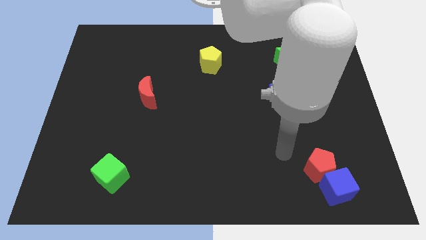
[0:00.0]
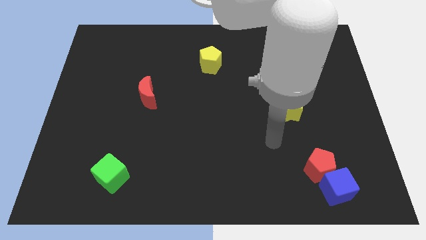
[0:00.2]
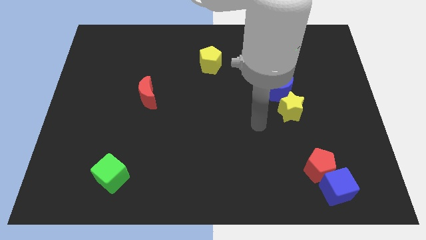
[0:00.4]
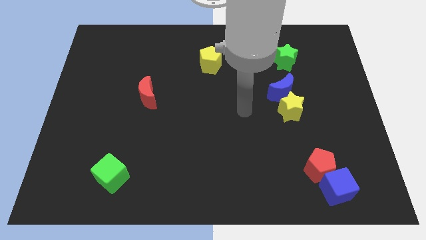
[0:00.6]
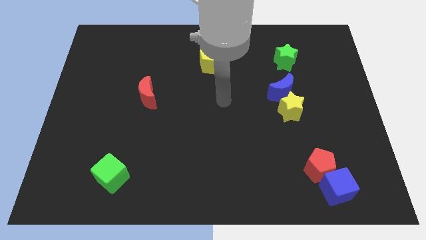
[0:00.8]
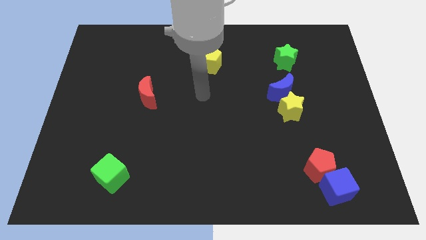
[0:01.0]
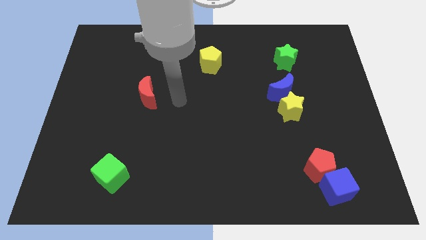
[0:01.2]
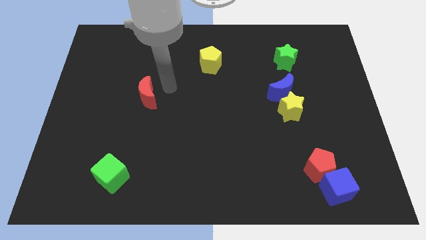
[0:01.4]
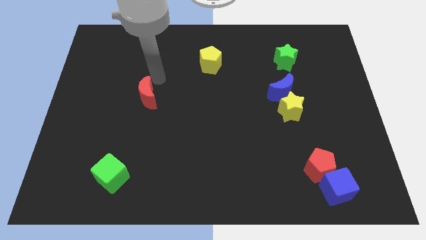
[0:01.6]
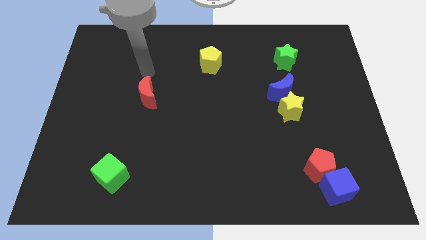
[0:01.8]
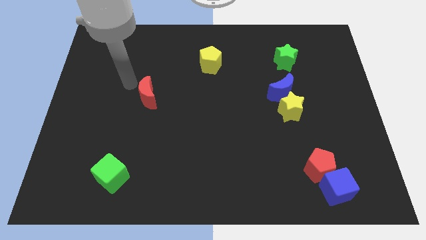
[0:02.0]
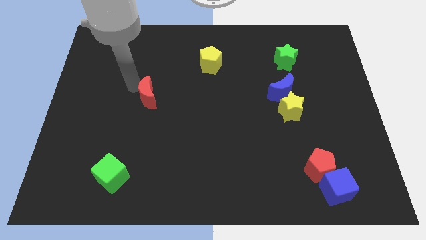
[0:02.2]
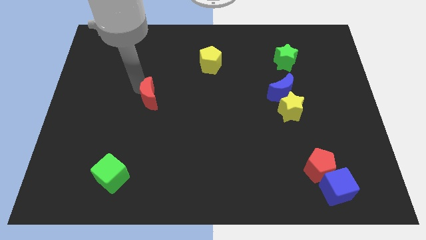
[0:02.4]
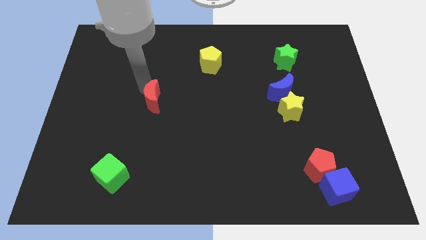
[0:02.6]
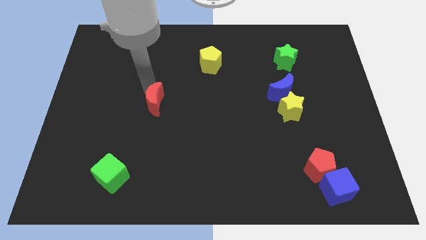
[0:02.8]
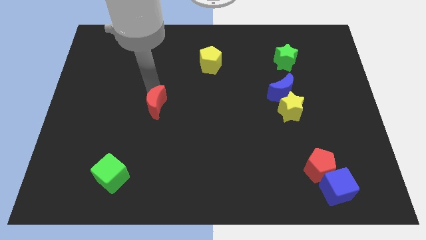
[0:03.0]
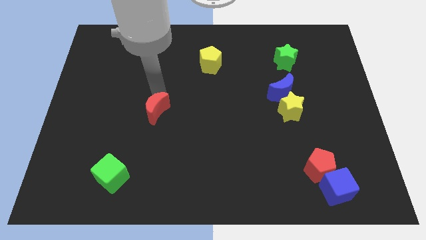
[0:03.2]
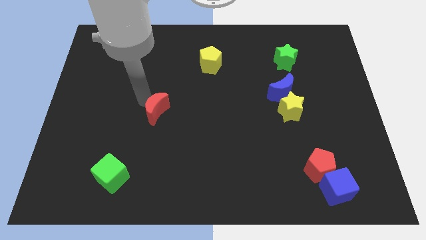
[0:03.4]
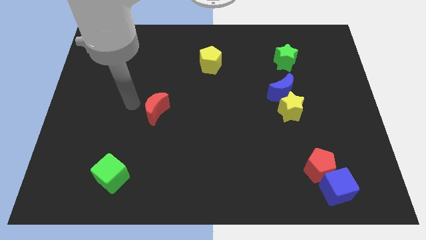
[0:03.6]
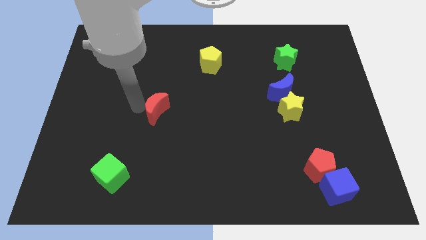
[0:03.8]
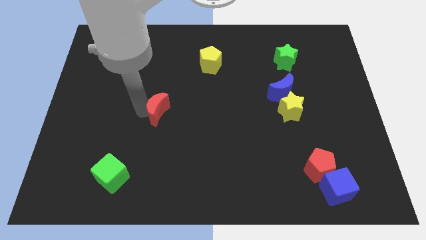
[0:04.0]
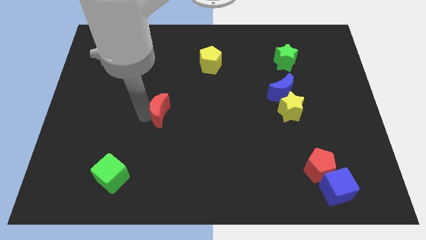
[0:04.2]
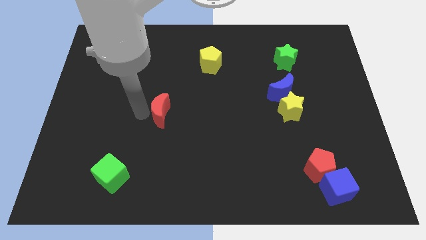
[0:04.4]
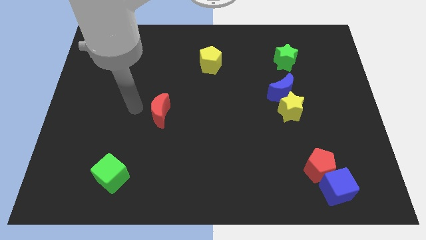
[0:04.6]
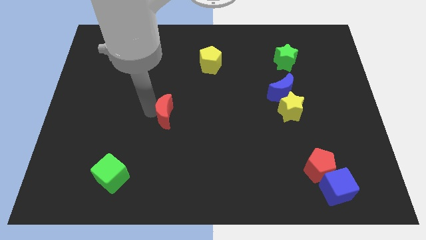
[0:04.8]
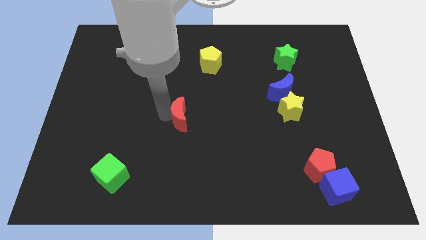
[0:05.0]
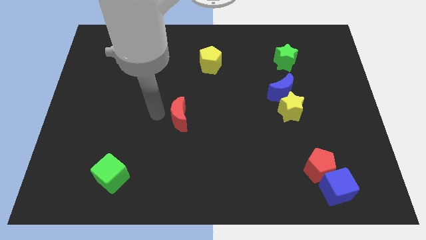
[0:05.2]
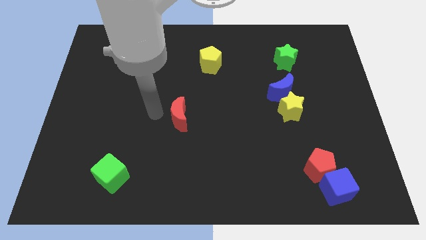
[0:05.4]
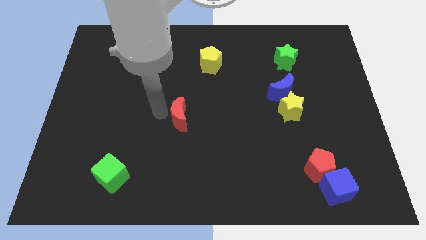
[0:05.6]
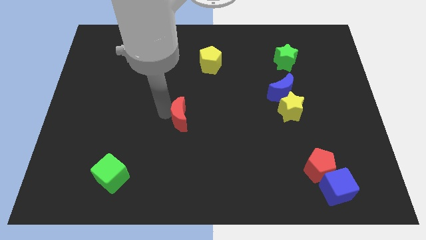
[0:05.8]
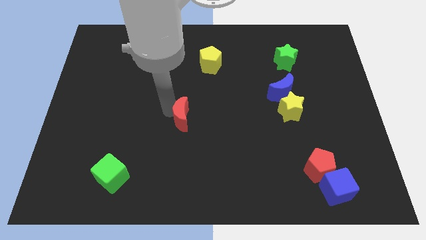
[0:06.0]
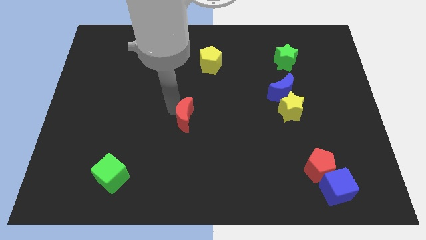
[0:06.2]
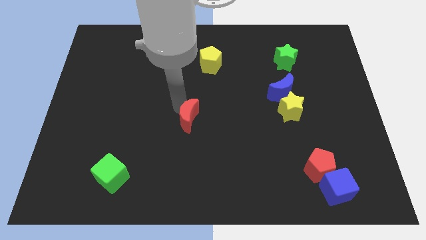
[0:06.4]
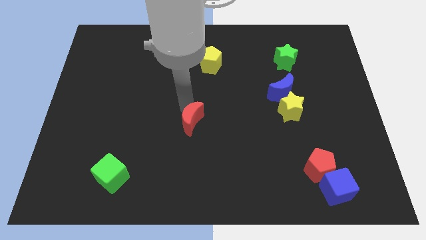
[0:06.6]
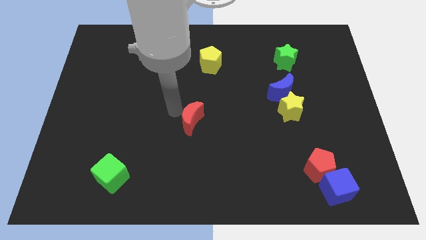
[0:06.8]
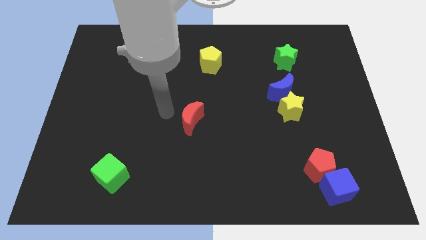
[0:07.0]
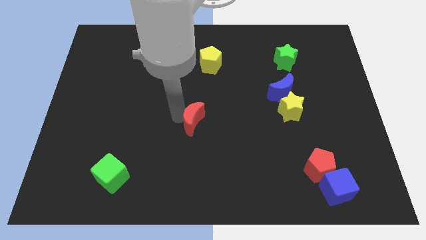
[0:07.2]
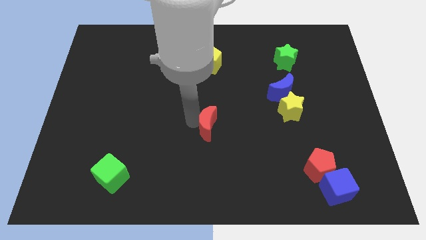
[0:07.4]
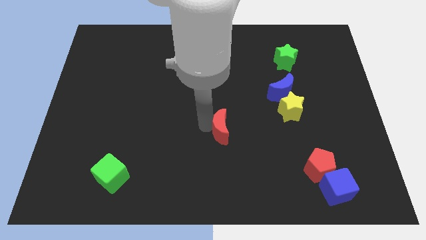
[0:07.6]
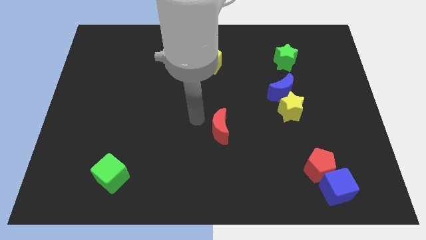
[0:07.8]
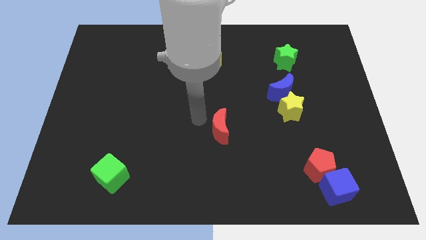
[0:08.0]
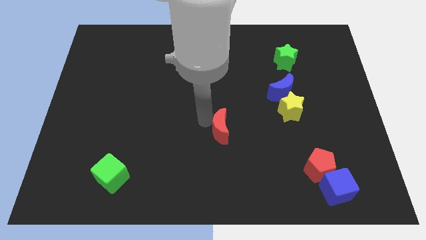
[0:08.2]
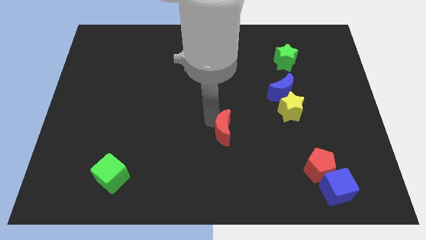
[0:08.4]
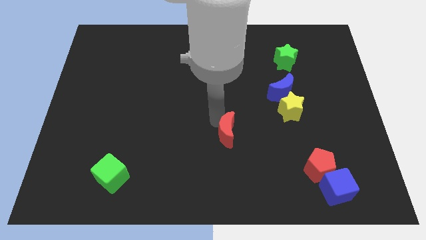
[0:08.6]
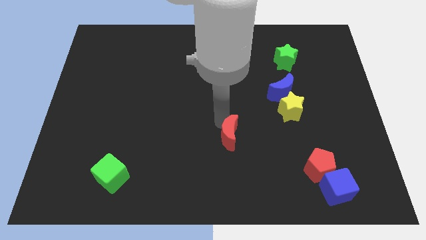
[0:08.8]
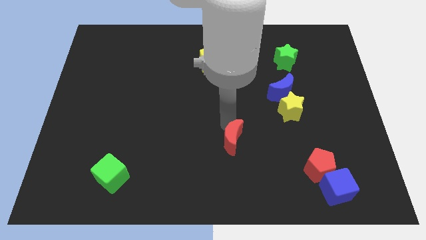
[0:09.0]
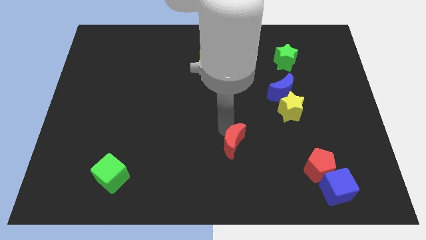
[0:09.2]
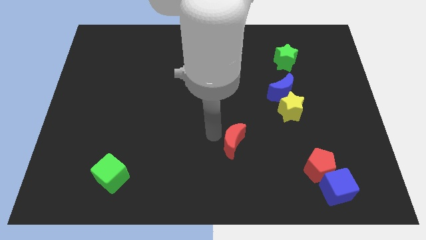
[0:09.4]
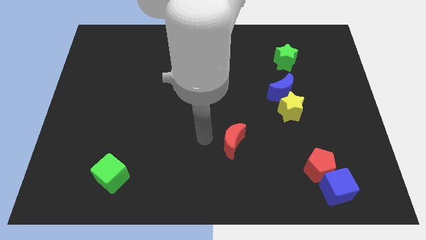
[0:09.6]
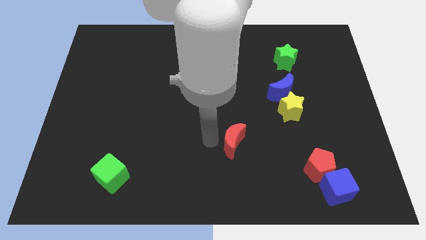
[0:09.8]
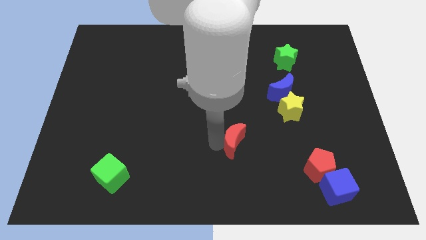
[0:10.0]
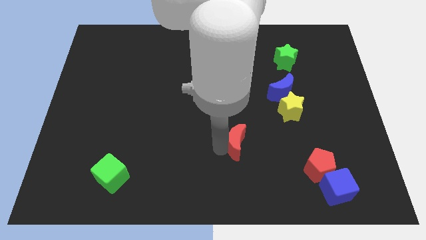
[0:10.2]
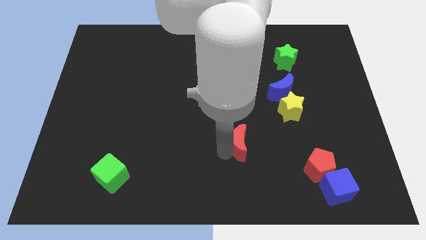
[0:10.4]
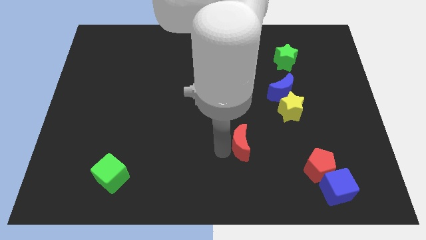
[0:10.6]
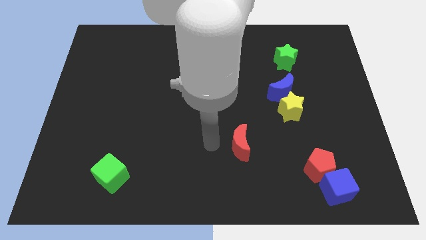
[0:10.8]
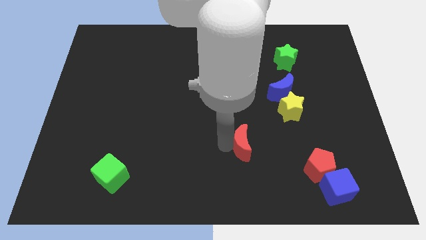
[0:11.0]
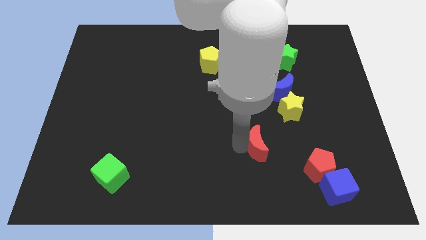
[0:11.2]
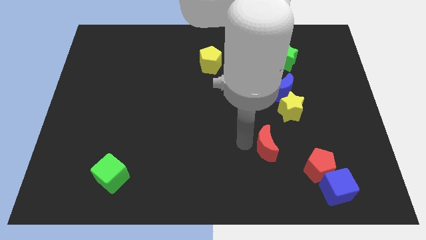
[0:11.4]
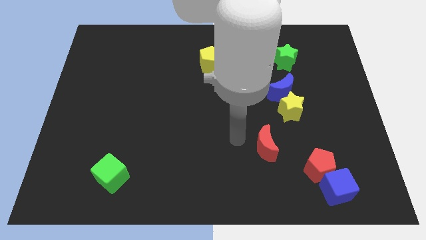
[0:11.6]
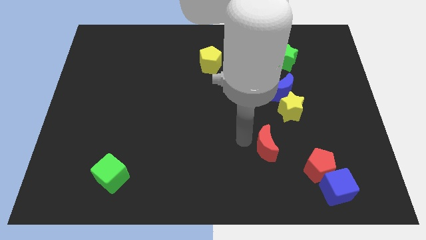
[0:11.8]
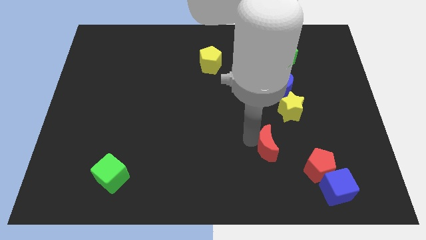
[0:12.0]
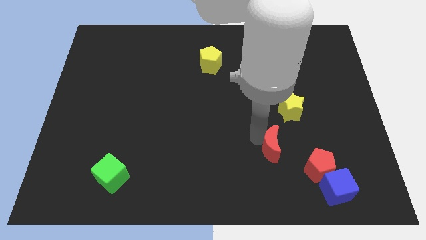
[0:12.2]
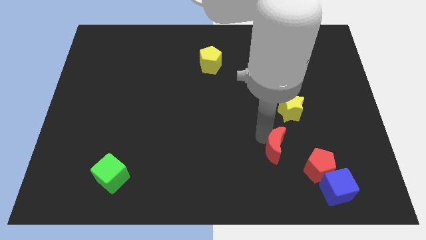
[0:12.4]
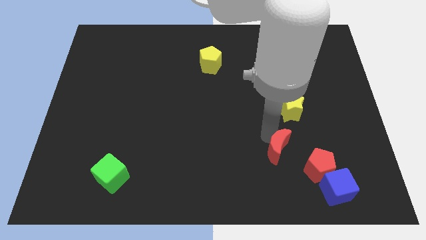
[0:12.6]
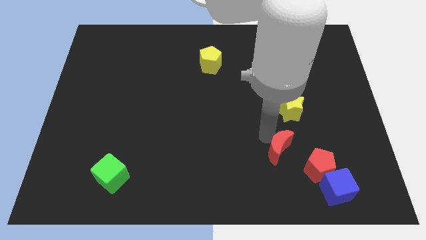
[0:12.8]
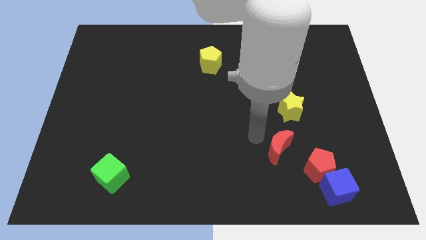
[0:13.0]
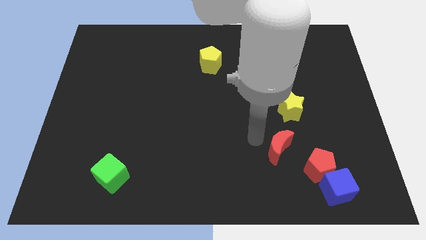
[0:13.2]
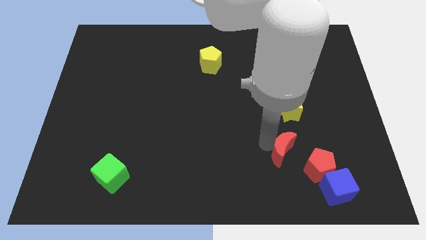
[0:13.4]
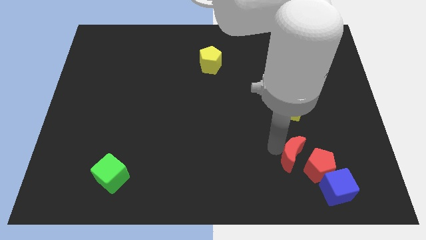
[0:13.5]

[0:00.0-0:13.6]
put the red moon towards the red pentagon
